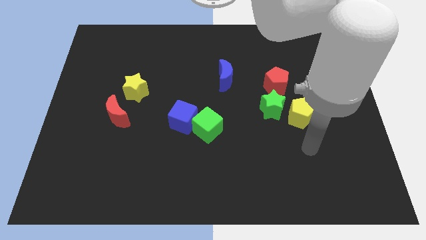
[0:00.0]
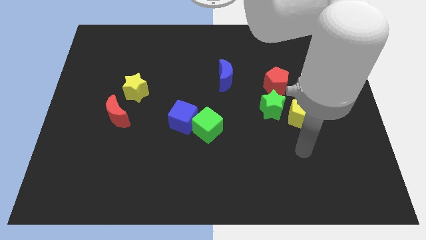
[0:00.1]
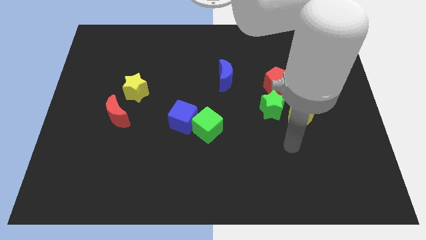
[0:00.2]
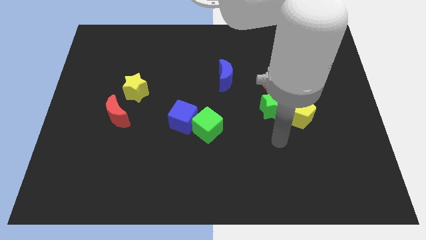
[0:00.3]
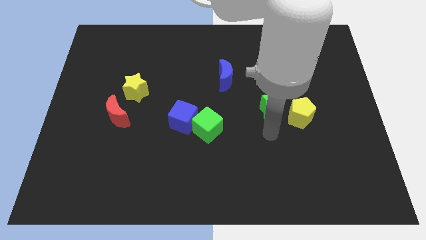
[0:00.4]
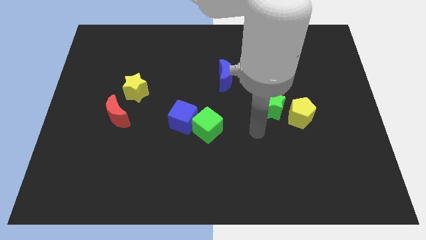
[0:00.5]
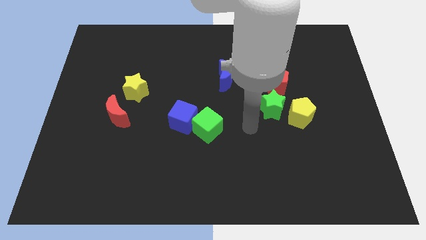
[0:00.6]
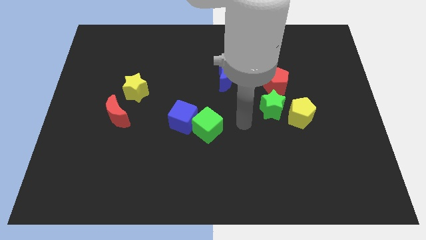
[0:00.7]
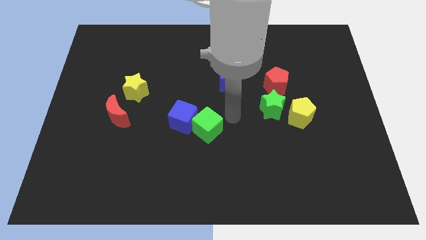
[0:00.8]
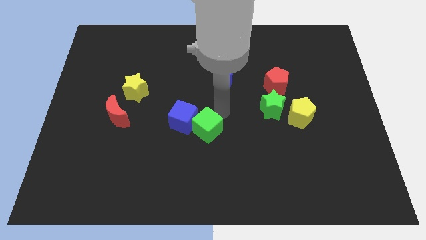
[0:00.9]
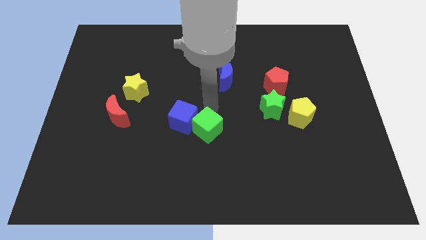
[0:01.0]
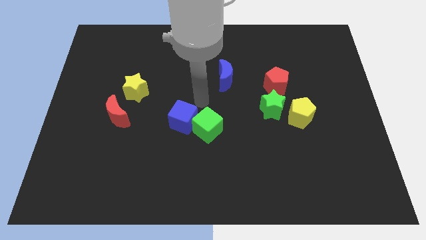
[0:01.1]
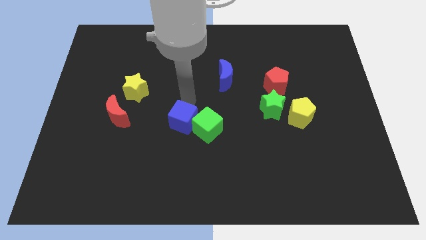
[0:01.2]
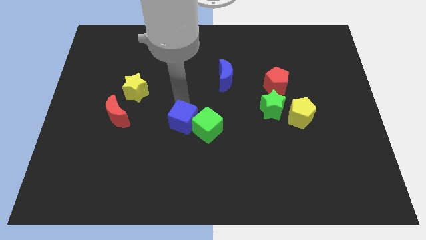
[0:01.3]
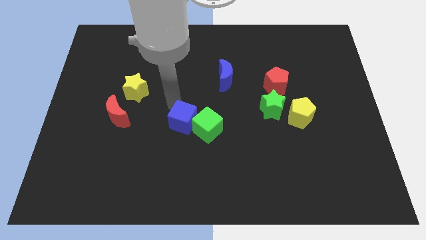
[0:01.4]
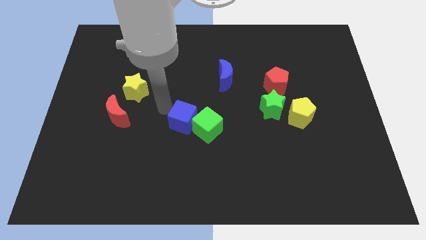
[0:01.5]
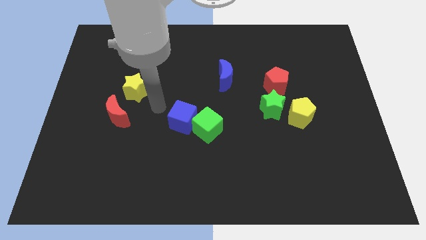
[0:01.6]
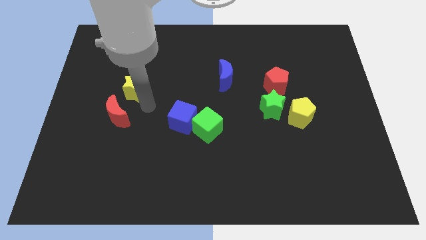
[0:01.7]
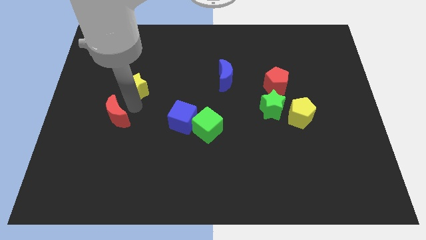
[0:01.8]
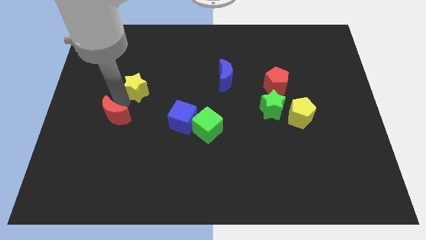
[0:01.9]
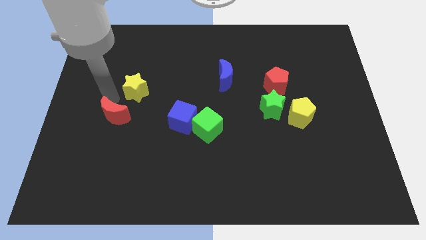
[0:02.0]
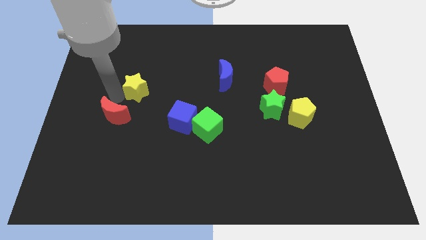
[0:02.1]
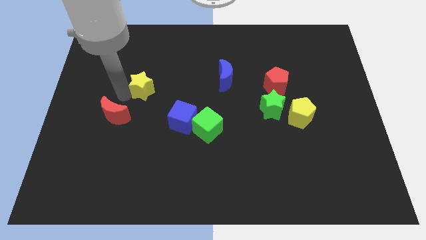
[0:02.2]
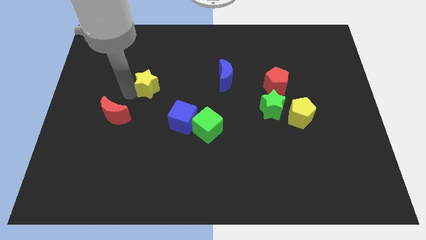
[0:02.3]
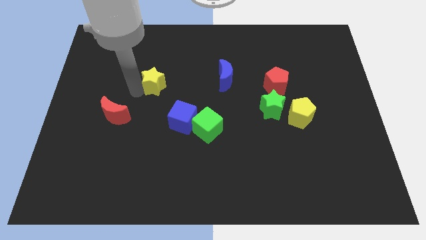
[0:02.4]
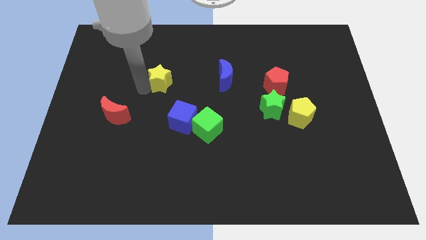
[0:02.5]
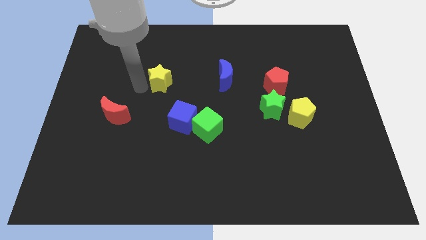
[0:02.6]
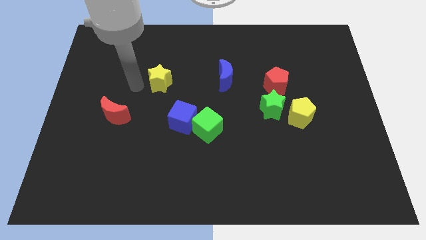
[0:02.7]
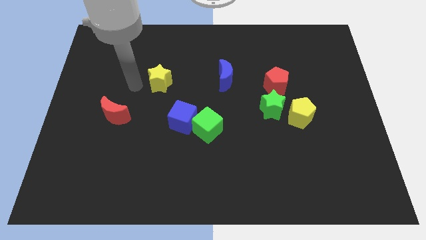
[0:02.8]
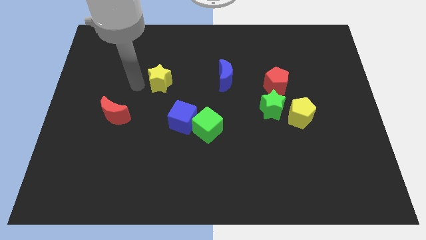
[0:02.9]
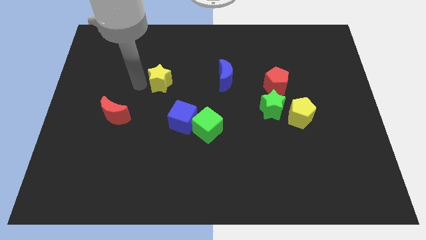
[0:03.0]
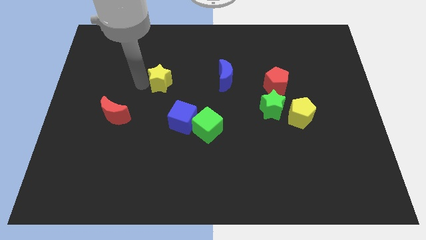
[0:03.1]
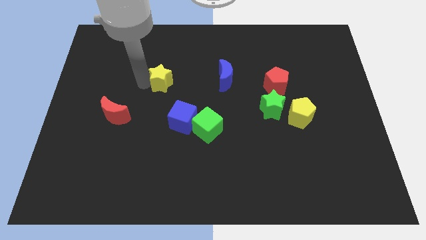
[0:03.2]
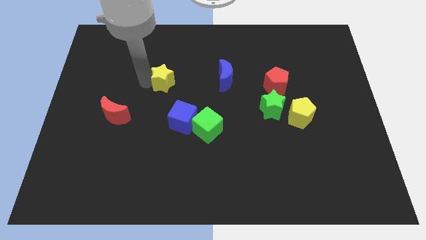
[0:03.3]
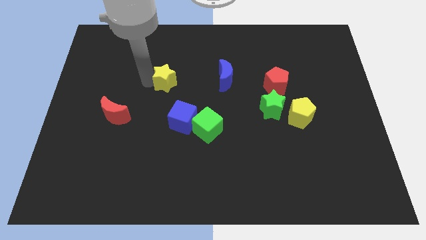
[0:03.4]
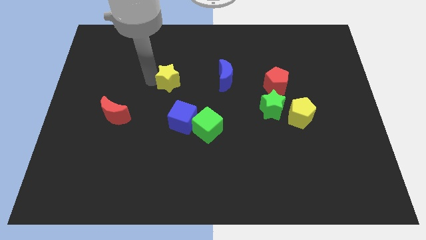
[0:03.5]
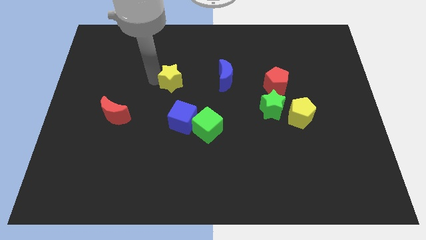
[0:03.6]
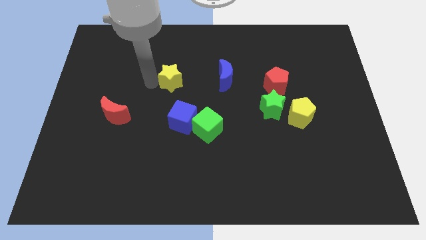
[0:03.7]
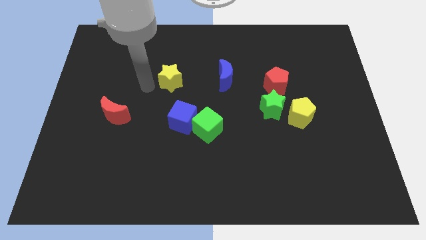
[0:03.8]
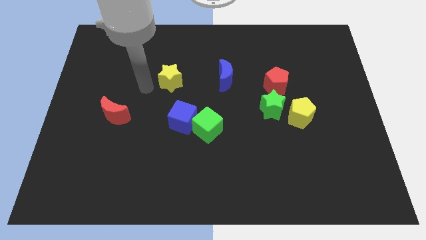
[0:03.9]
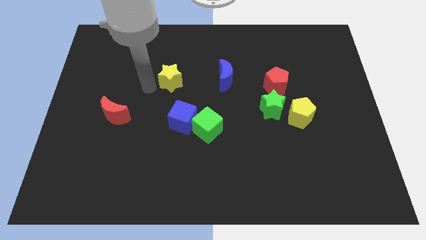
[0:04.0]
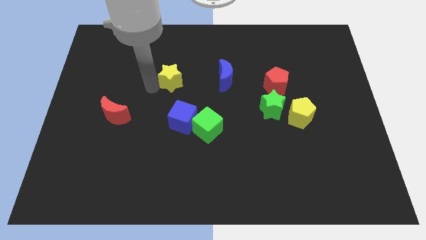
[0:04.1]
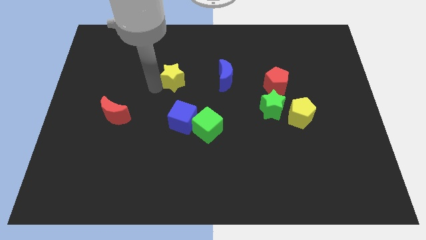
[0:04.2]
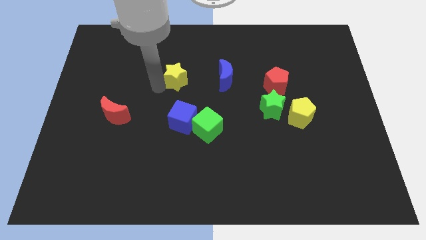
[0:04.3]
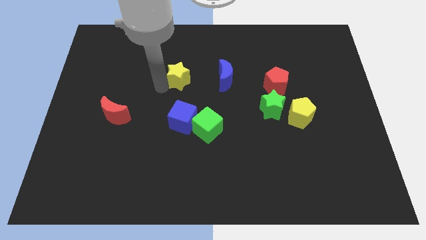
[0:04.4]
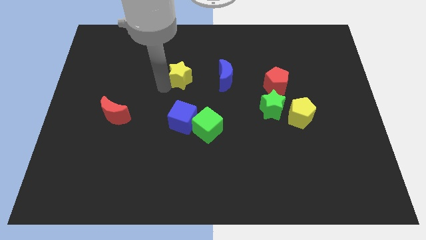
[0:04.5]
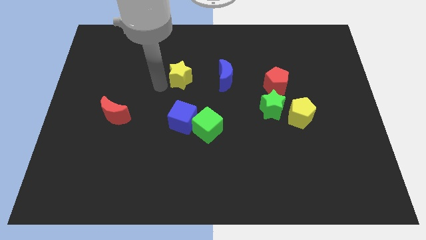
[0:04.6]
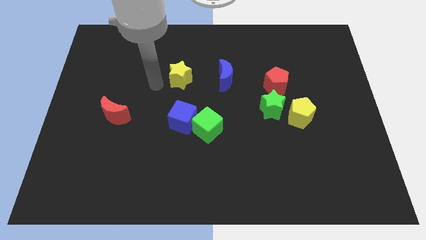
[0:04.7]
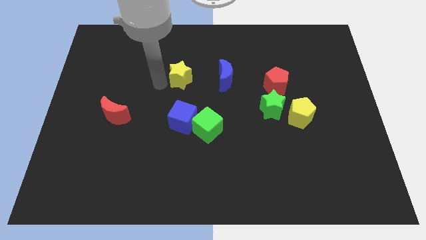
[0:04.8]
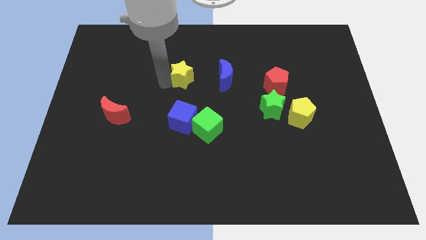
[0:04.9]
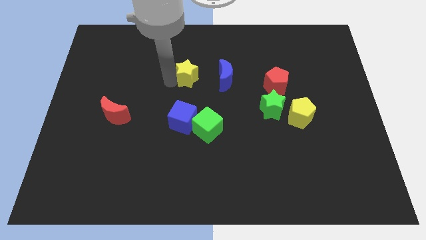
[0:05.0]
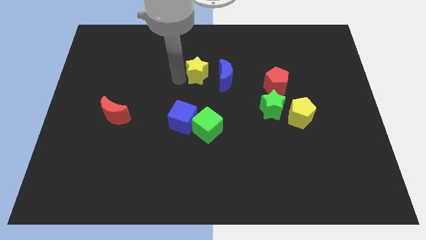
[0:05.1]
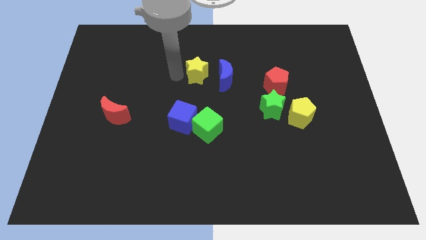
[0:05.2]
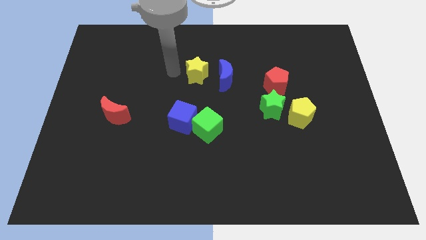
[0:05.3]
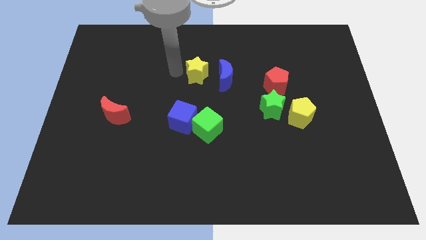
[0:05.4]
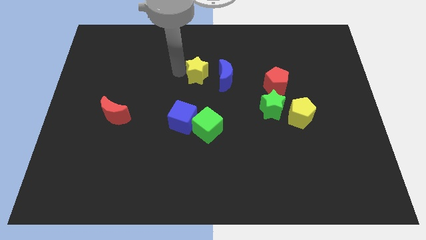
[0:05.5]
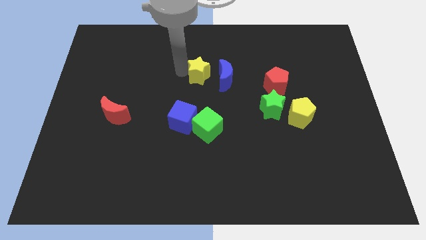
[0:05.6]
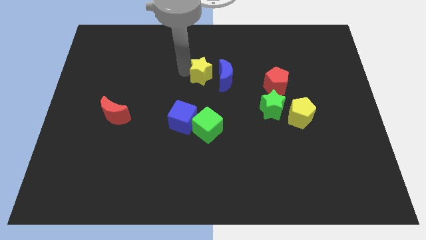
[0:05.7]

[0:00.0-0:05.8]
put the yellow star towards the blue moon
